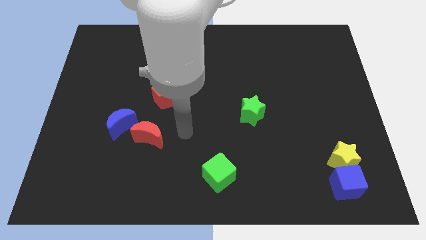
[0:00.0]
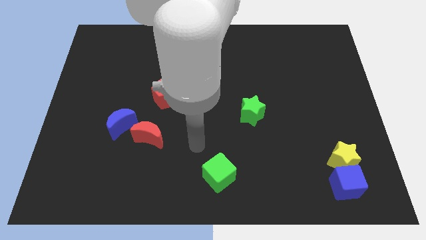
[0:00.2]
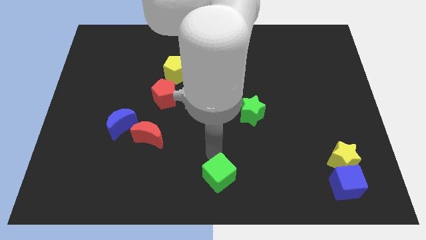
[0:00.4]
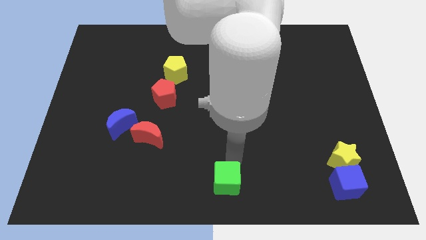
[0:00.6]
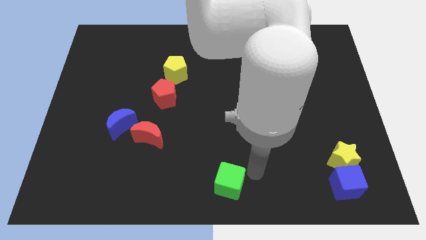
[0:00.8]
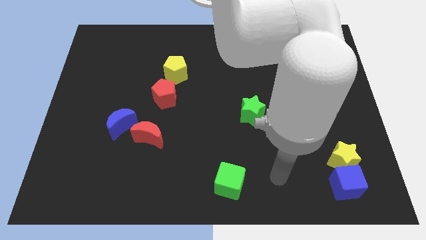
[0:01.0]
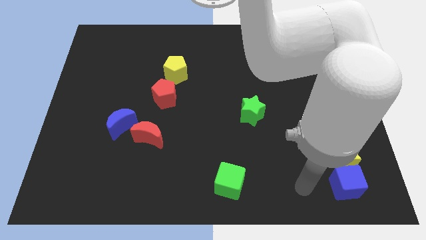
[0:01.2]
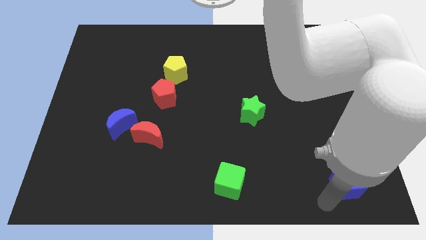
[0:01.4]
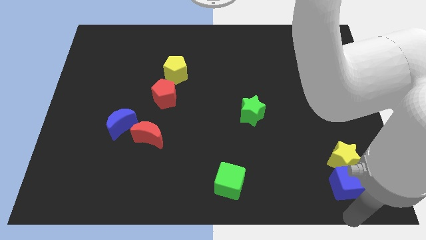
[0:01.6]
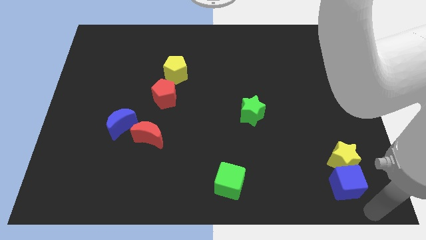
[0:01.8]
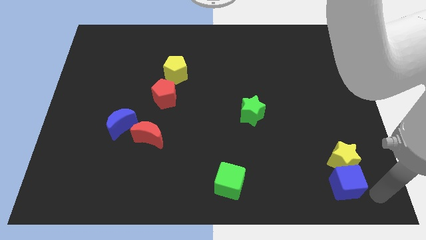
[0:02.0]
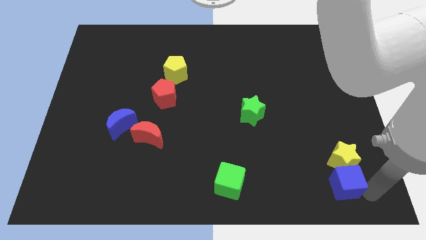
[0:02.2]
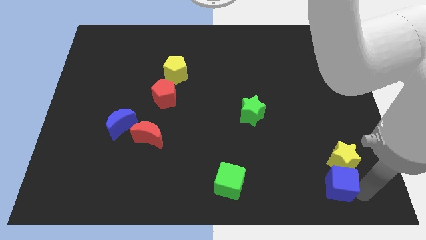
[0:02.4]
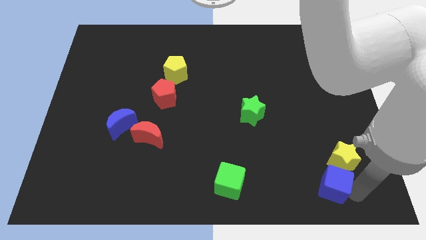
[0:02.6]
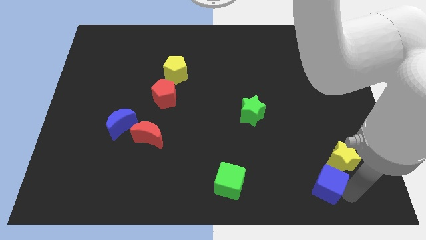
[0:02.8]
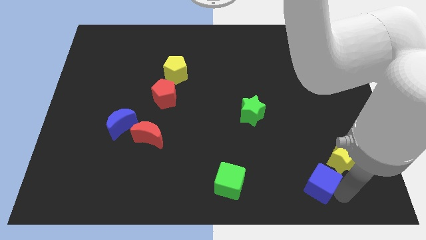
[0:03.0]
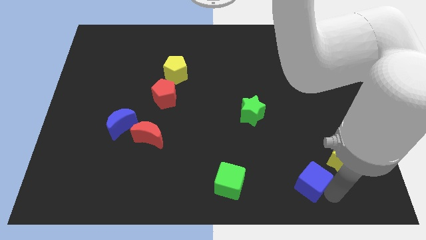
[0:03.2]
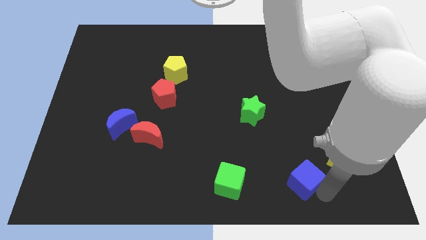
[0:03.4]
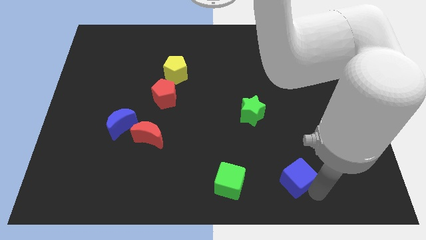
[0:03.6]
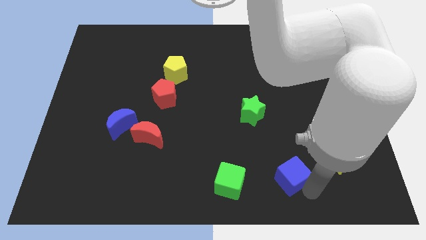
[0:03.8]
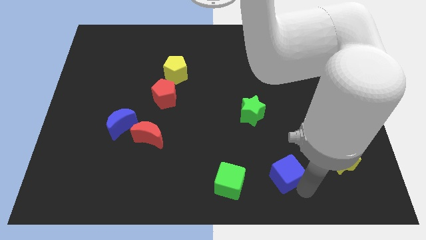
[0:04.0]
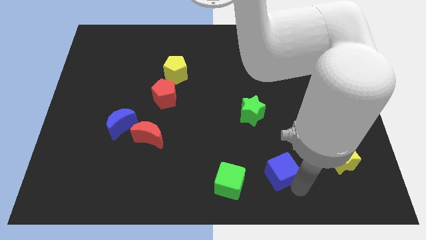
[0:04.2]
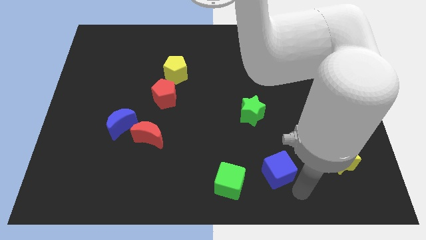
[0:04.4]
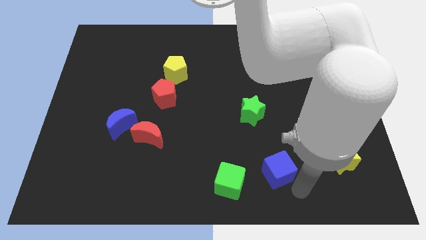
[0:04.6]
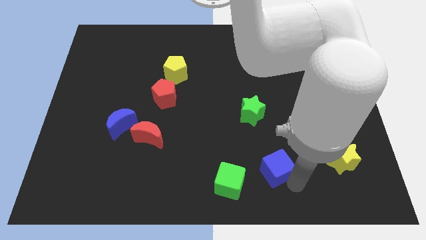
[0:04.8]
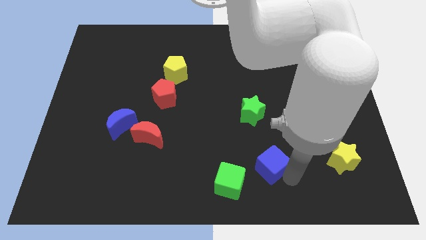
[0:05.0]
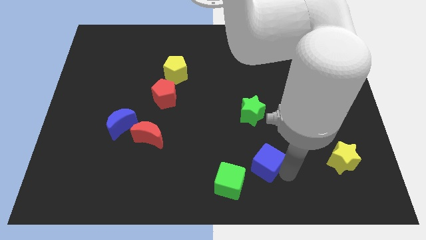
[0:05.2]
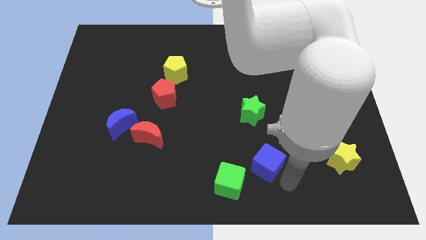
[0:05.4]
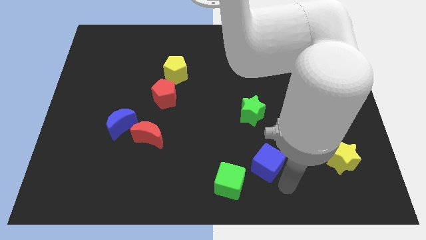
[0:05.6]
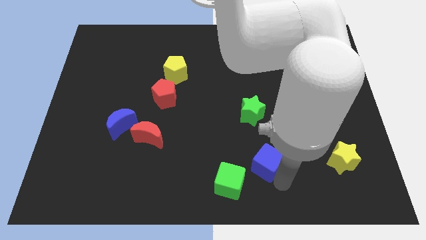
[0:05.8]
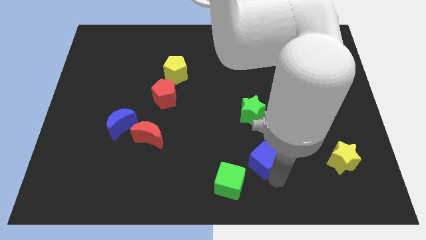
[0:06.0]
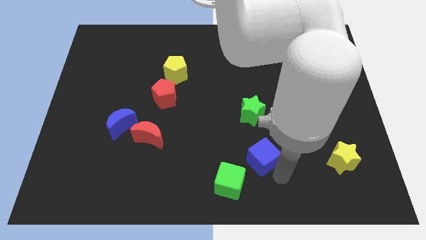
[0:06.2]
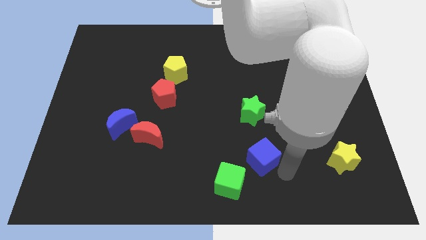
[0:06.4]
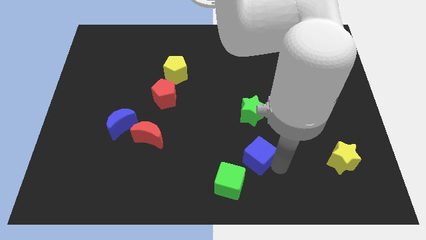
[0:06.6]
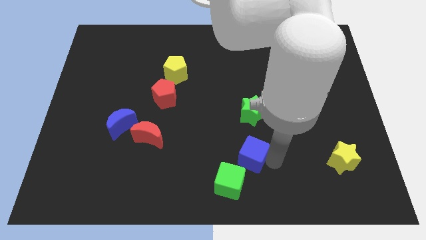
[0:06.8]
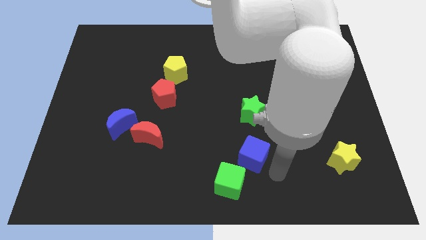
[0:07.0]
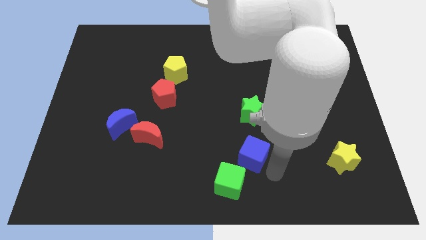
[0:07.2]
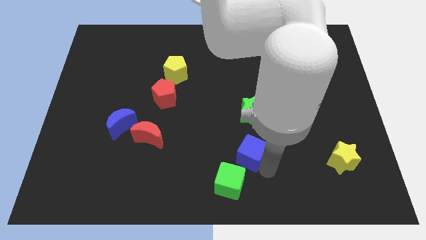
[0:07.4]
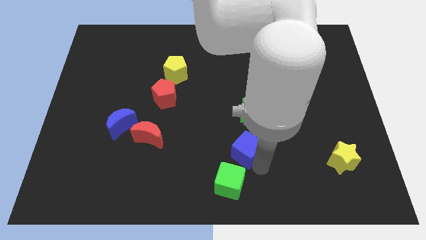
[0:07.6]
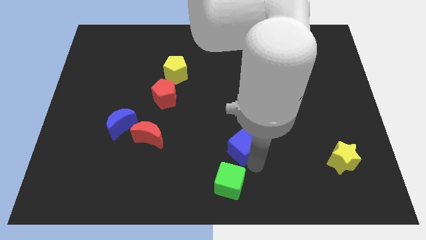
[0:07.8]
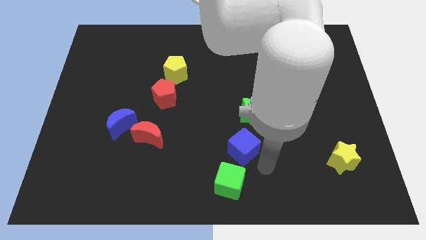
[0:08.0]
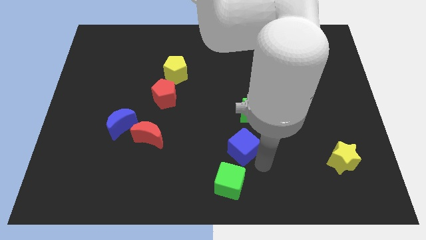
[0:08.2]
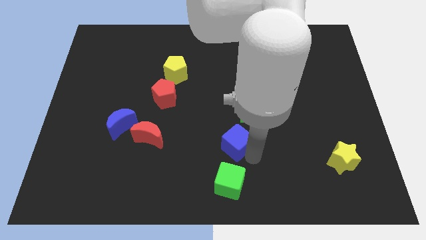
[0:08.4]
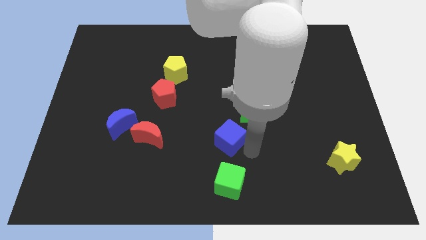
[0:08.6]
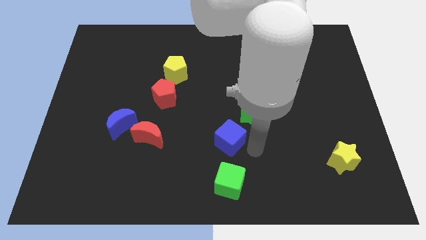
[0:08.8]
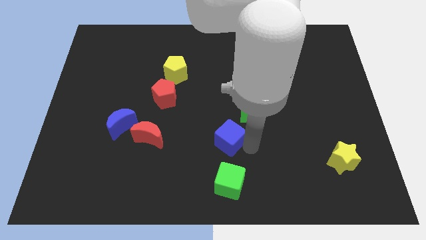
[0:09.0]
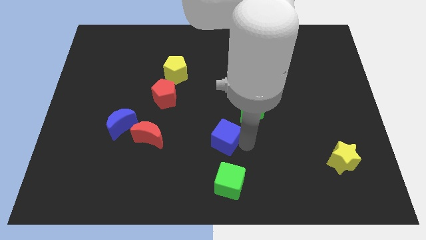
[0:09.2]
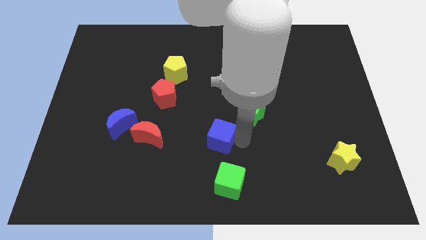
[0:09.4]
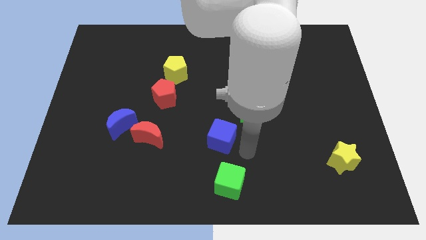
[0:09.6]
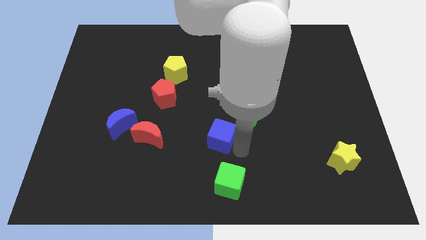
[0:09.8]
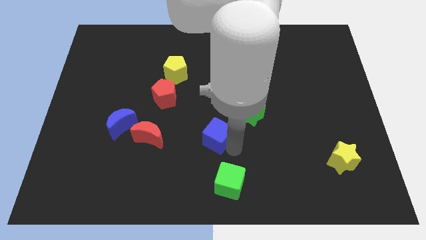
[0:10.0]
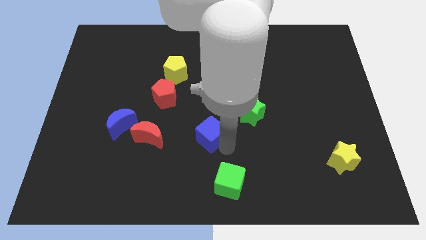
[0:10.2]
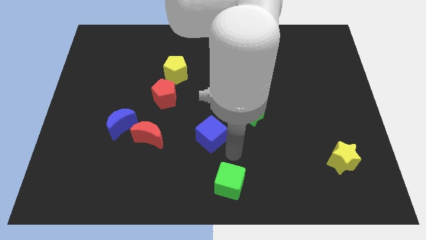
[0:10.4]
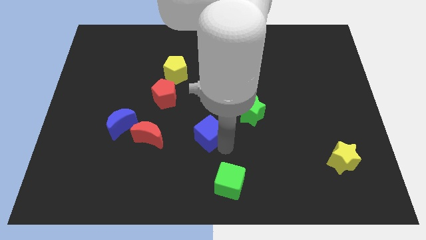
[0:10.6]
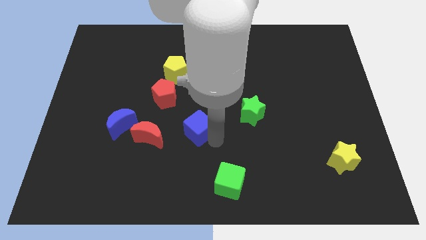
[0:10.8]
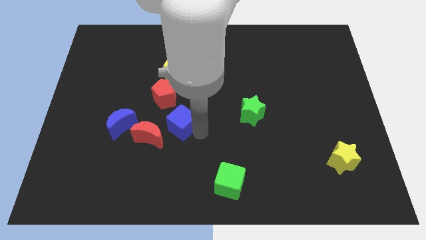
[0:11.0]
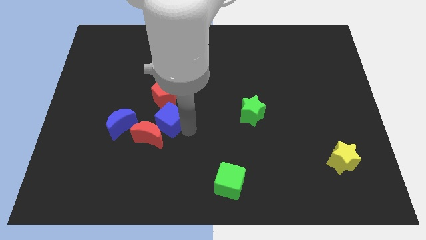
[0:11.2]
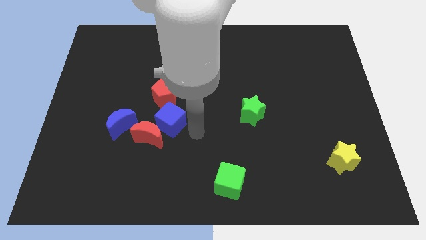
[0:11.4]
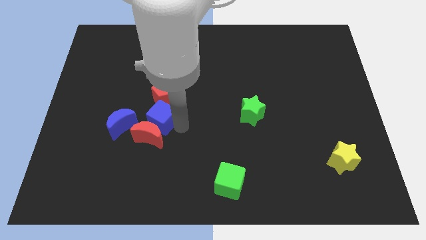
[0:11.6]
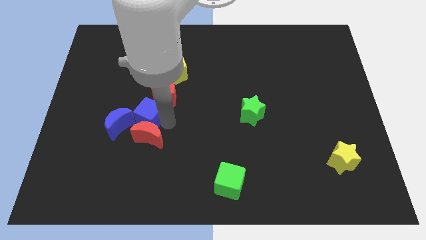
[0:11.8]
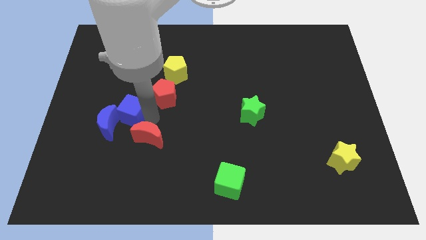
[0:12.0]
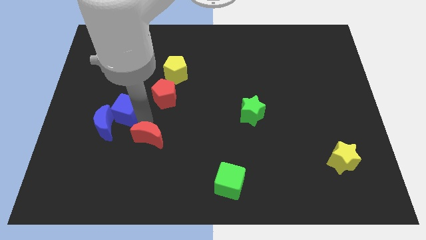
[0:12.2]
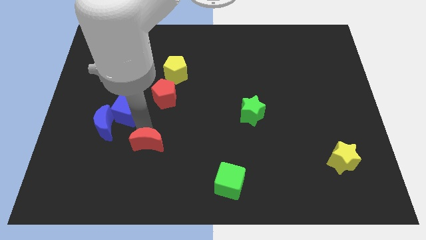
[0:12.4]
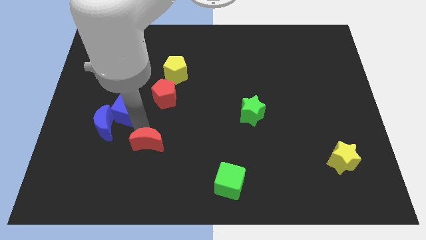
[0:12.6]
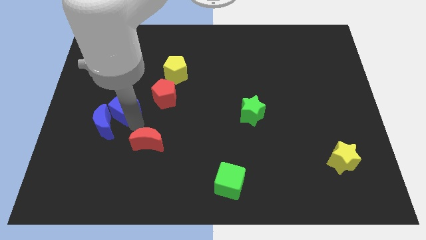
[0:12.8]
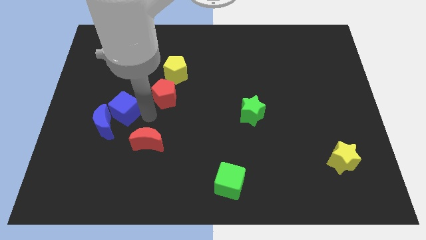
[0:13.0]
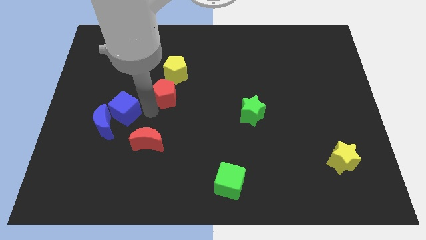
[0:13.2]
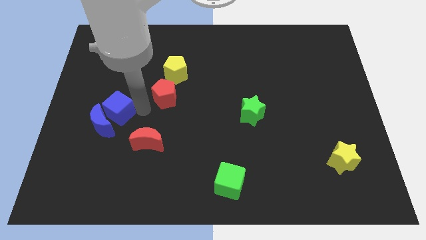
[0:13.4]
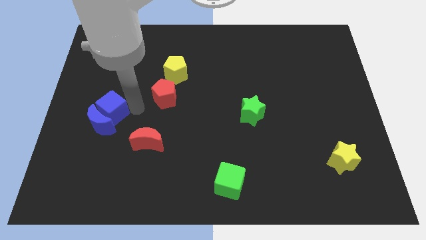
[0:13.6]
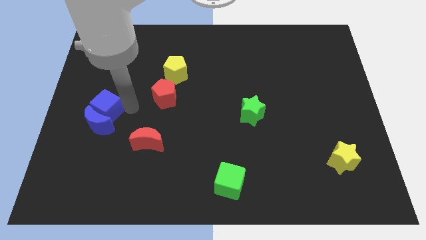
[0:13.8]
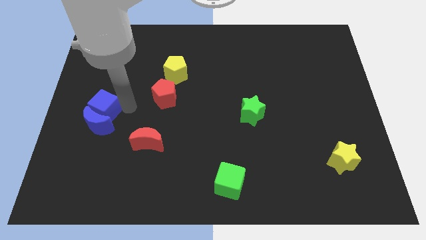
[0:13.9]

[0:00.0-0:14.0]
slide the blue cube to the center left
